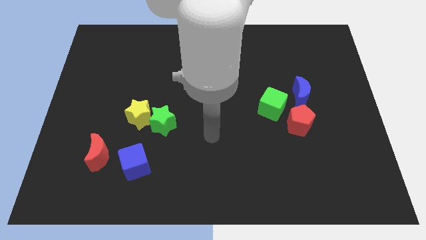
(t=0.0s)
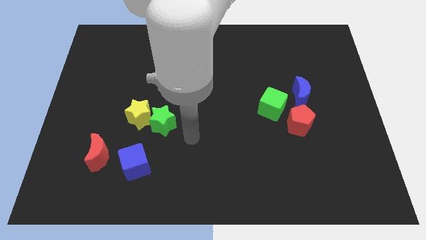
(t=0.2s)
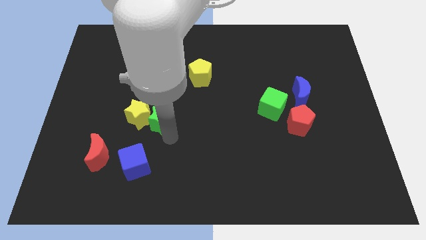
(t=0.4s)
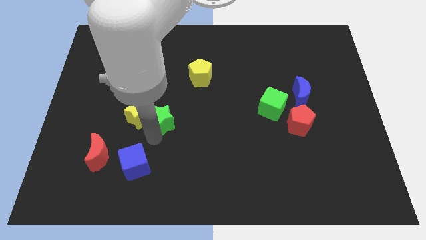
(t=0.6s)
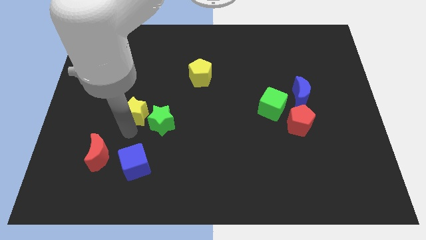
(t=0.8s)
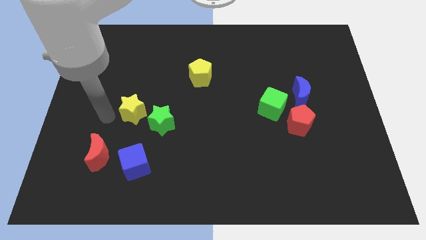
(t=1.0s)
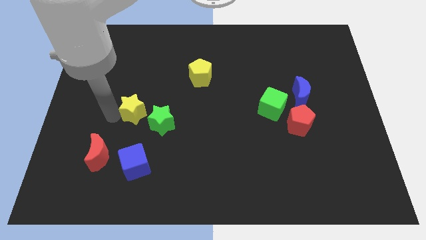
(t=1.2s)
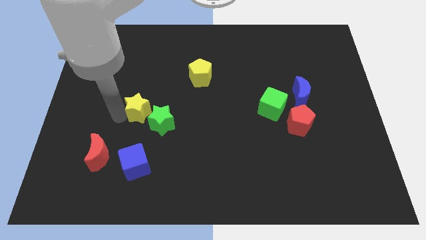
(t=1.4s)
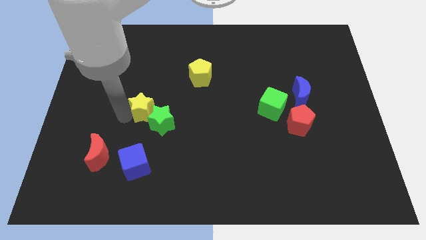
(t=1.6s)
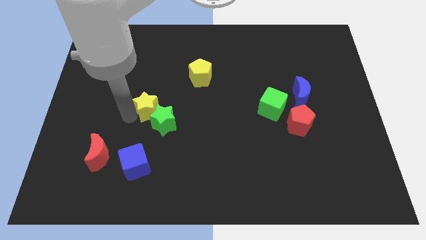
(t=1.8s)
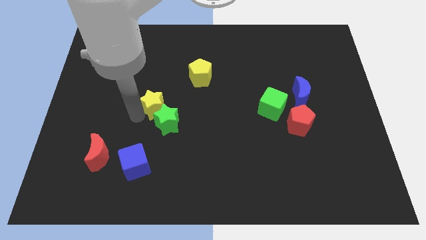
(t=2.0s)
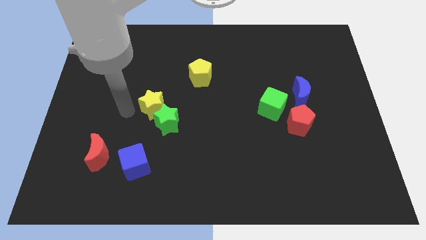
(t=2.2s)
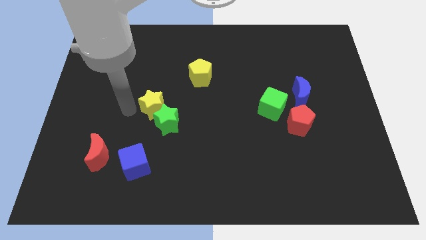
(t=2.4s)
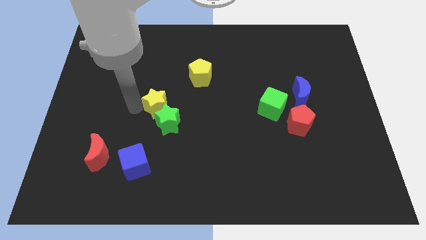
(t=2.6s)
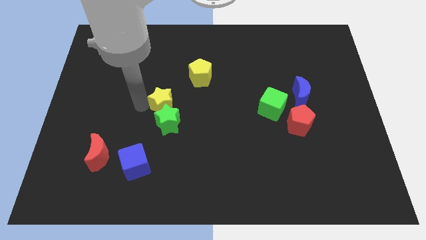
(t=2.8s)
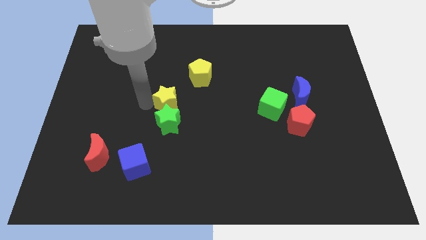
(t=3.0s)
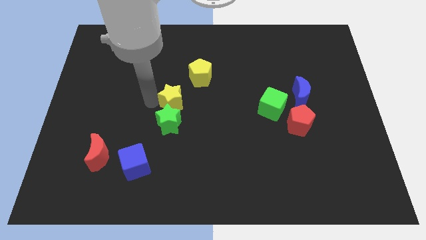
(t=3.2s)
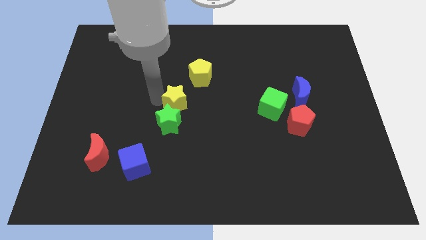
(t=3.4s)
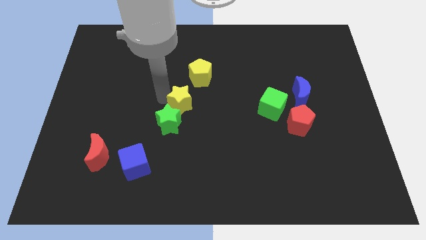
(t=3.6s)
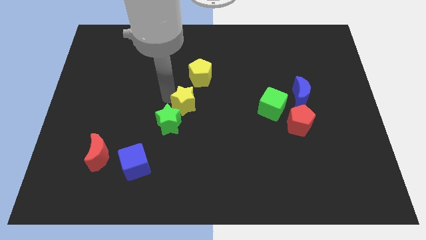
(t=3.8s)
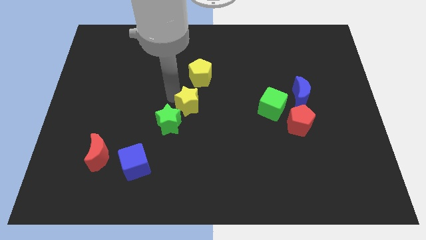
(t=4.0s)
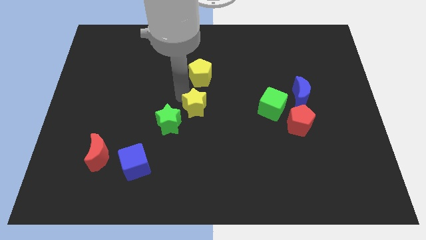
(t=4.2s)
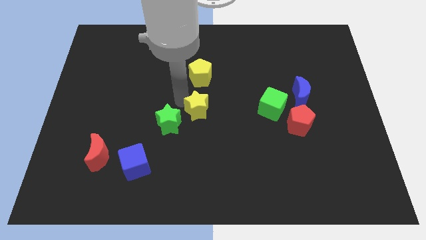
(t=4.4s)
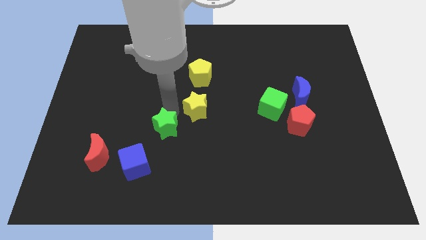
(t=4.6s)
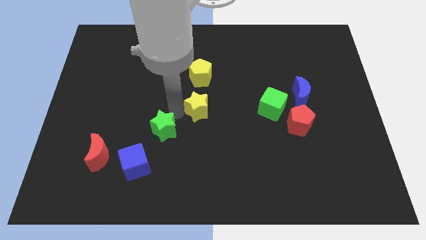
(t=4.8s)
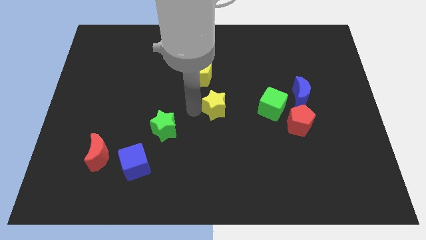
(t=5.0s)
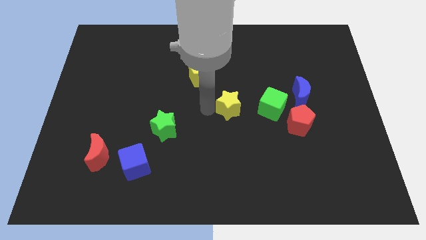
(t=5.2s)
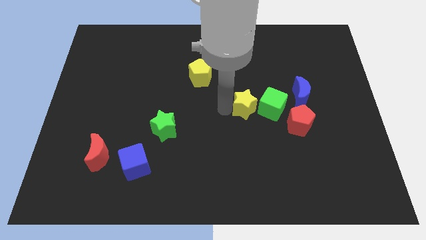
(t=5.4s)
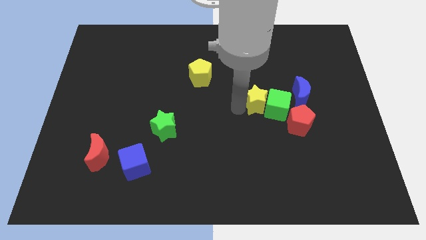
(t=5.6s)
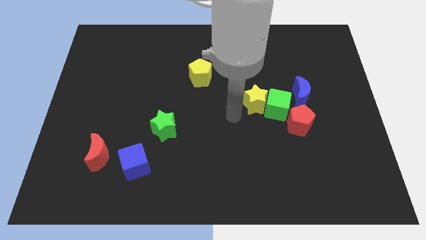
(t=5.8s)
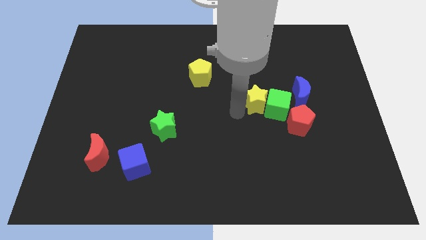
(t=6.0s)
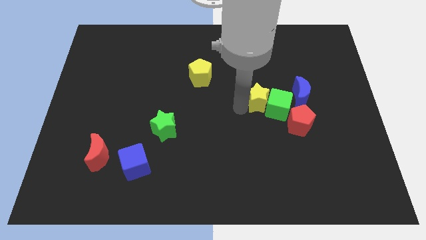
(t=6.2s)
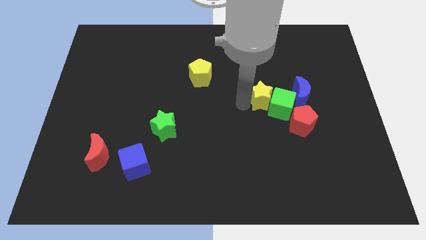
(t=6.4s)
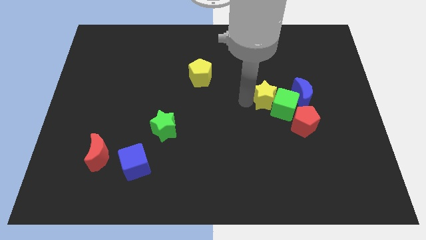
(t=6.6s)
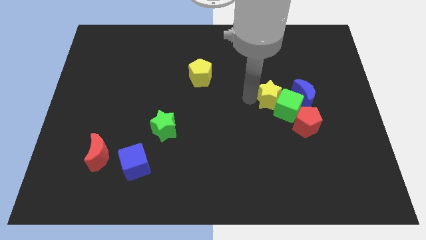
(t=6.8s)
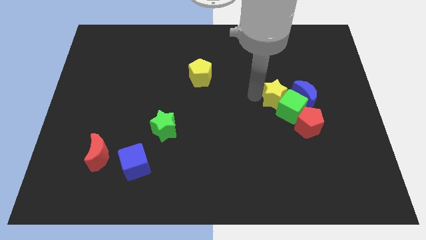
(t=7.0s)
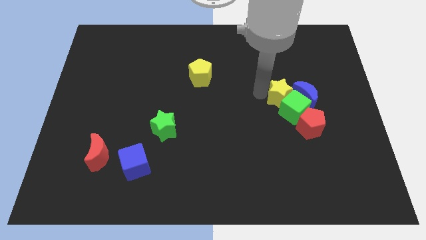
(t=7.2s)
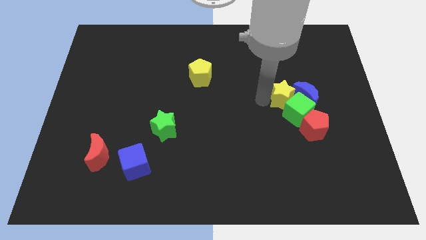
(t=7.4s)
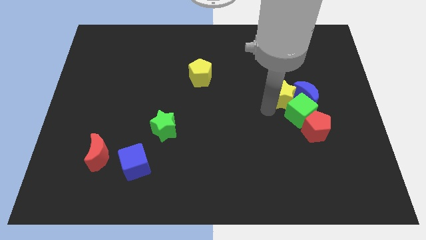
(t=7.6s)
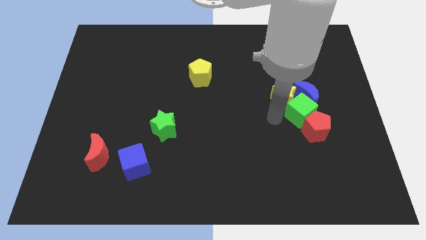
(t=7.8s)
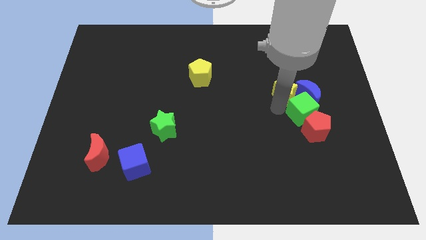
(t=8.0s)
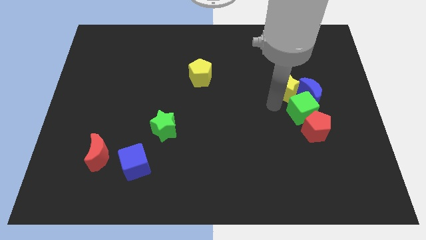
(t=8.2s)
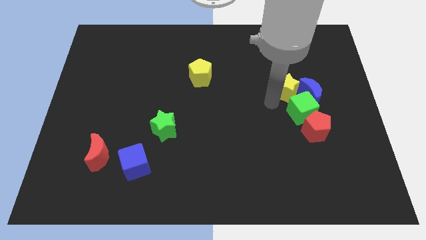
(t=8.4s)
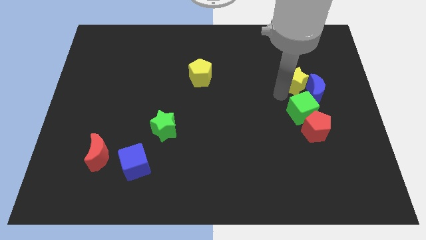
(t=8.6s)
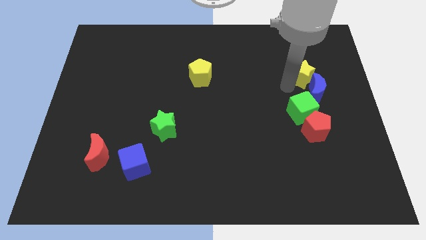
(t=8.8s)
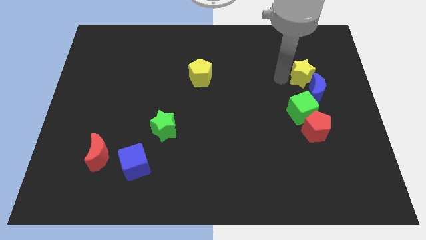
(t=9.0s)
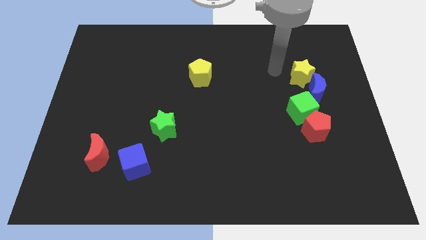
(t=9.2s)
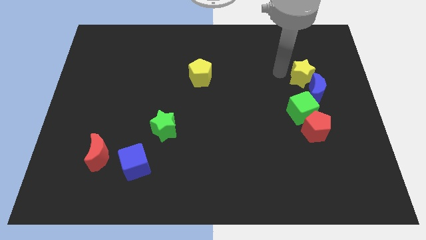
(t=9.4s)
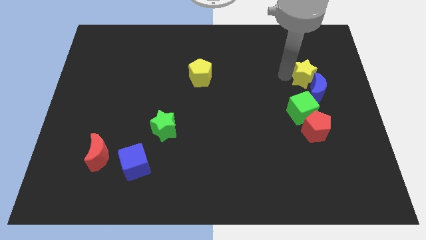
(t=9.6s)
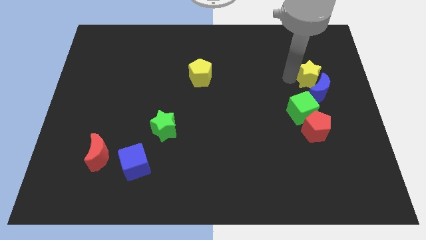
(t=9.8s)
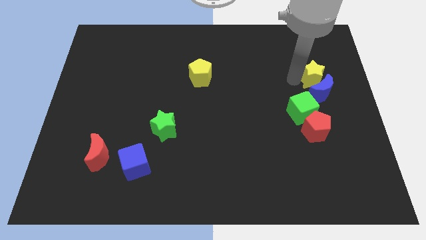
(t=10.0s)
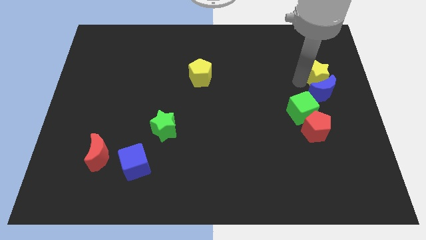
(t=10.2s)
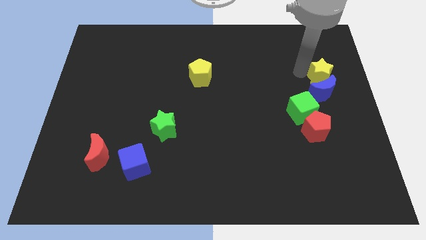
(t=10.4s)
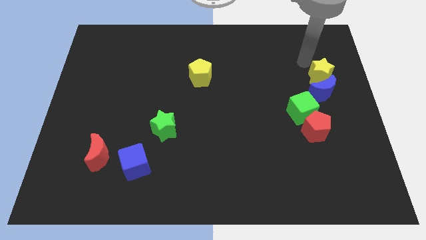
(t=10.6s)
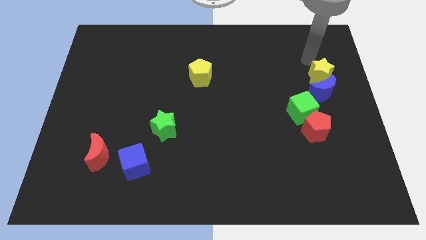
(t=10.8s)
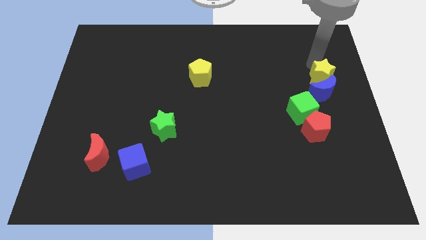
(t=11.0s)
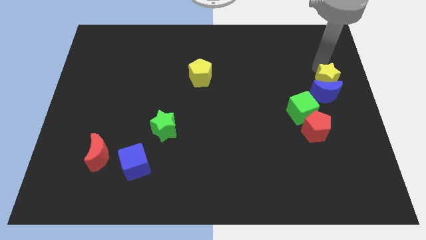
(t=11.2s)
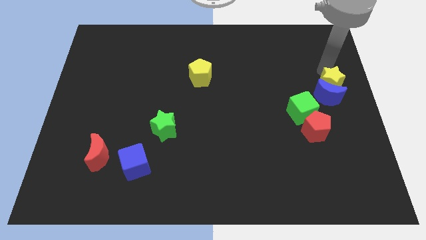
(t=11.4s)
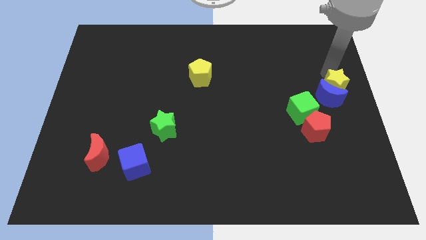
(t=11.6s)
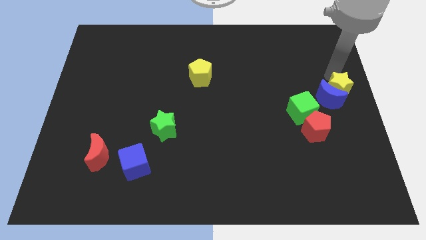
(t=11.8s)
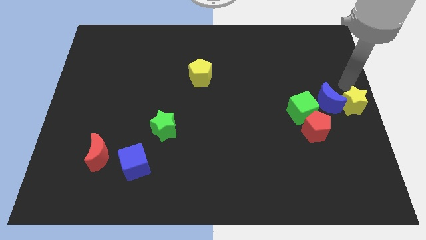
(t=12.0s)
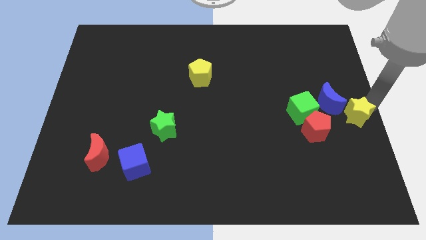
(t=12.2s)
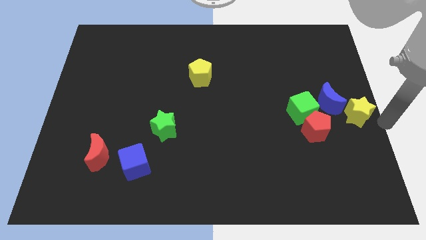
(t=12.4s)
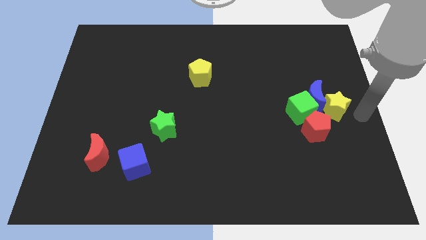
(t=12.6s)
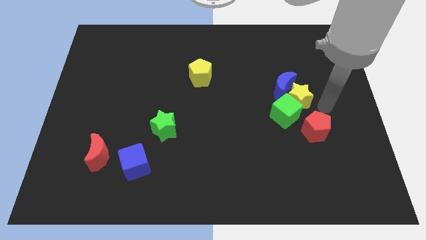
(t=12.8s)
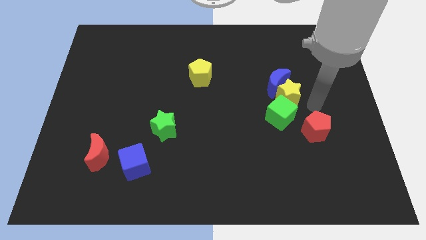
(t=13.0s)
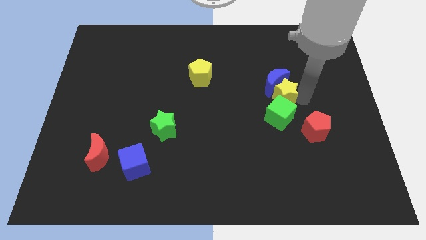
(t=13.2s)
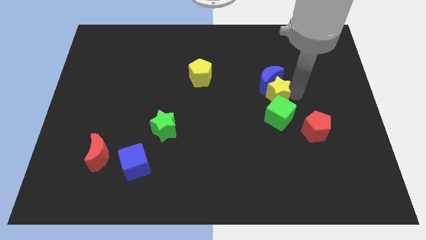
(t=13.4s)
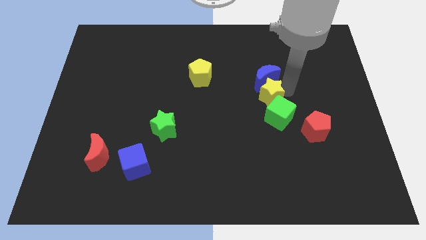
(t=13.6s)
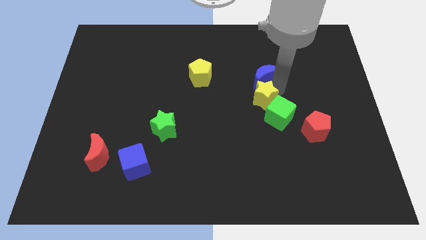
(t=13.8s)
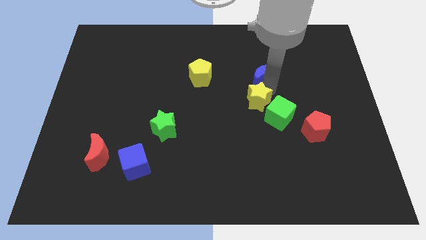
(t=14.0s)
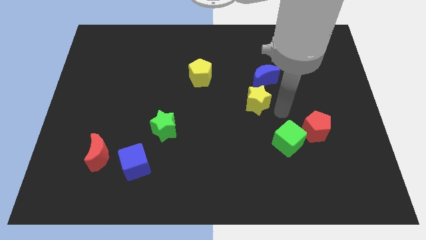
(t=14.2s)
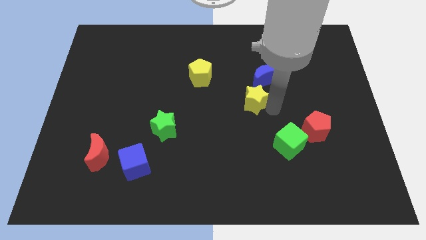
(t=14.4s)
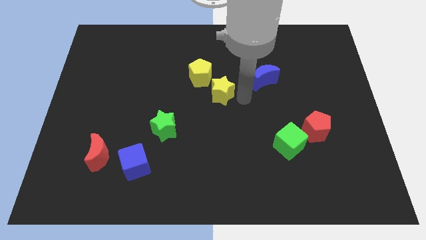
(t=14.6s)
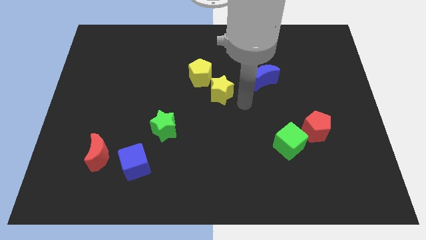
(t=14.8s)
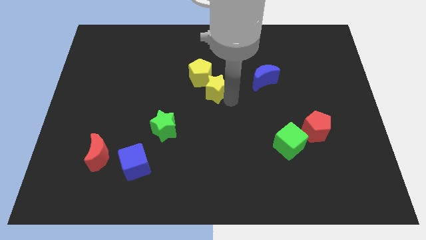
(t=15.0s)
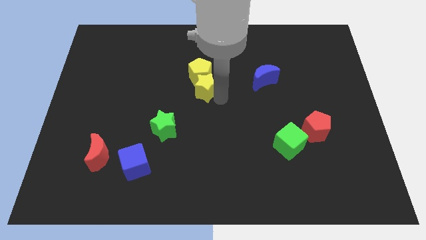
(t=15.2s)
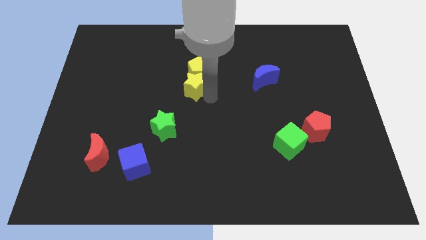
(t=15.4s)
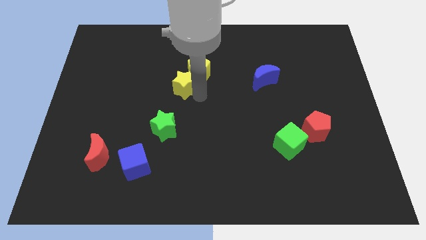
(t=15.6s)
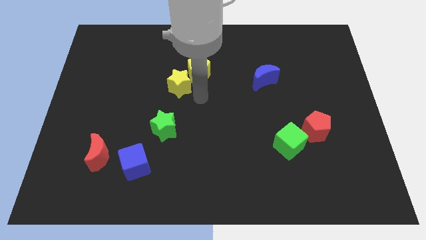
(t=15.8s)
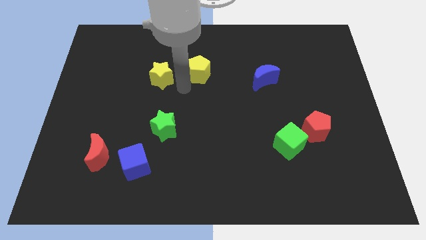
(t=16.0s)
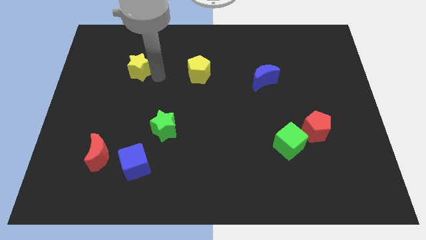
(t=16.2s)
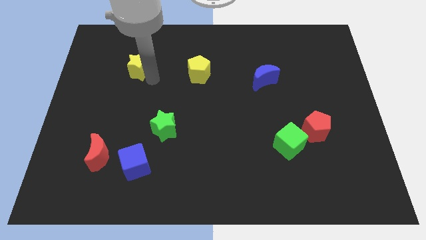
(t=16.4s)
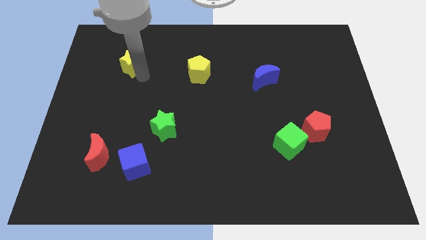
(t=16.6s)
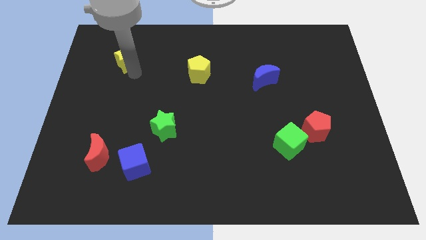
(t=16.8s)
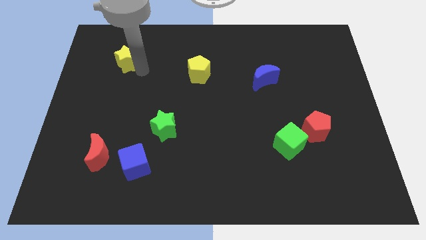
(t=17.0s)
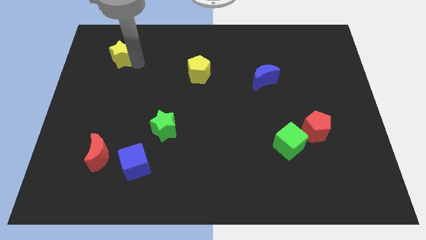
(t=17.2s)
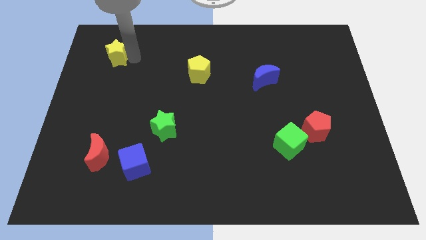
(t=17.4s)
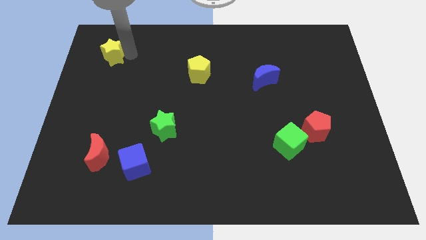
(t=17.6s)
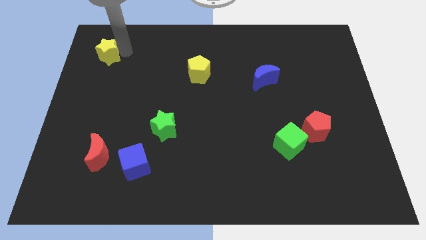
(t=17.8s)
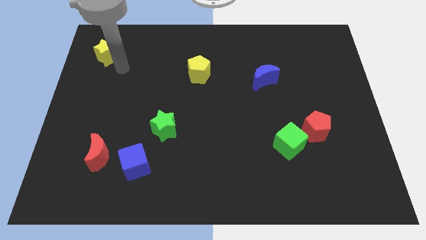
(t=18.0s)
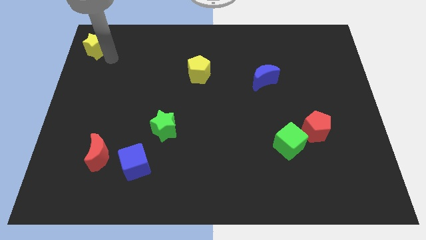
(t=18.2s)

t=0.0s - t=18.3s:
push the yellow star to the top left corner
